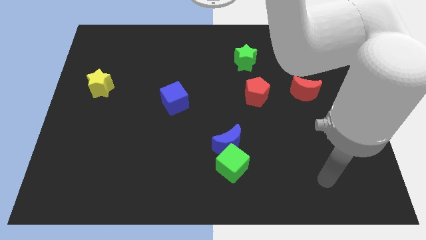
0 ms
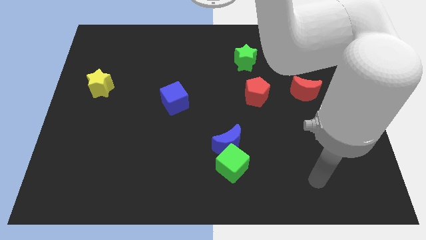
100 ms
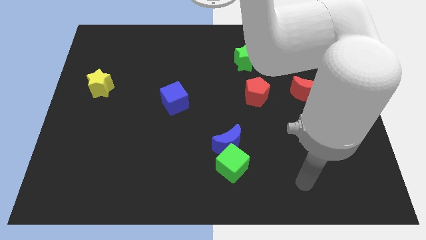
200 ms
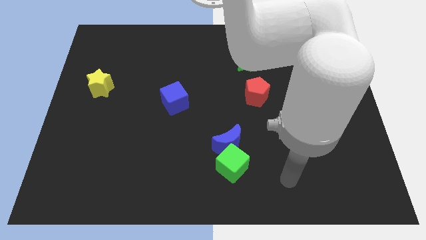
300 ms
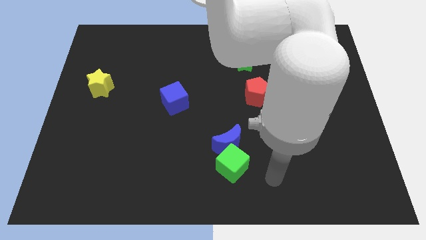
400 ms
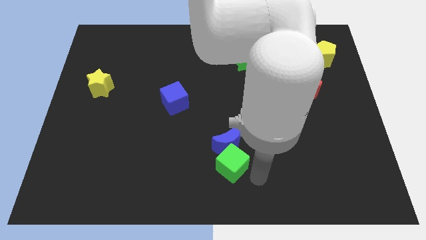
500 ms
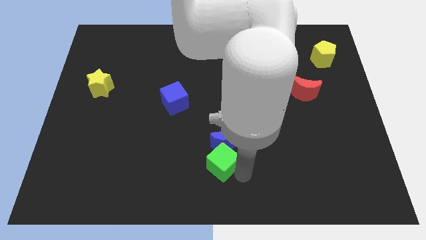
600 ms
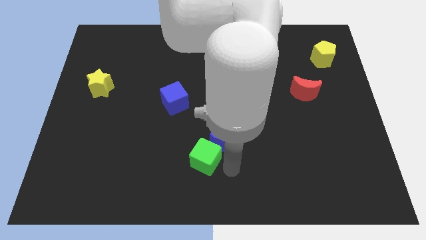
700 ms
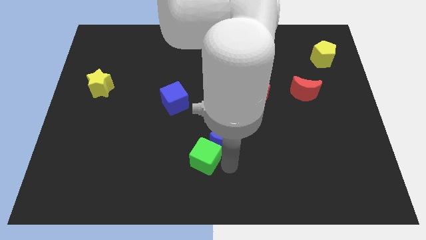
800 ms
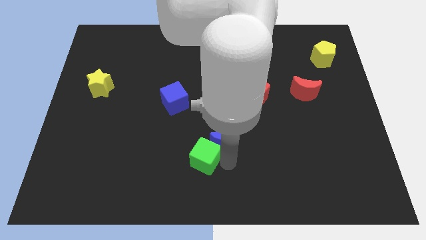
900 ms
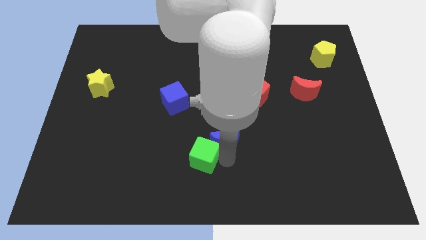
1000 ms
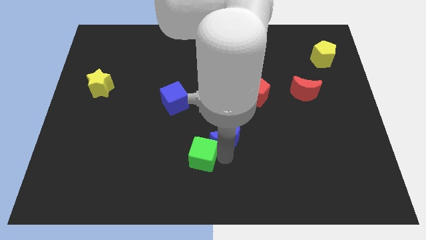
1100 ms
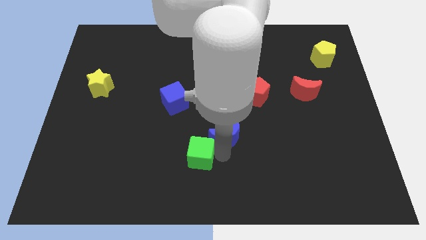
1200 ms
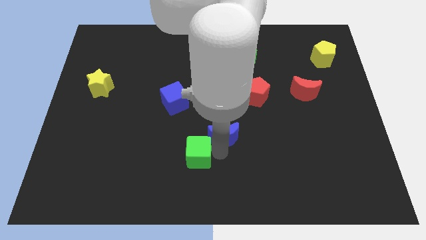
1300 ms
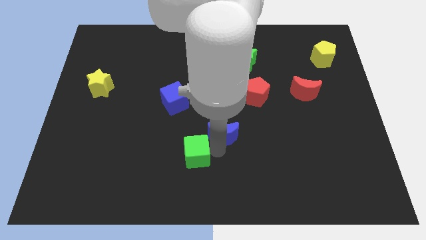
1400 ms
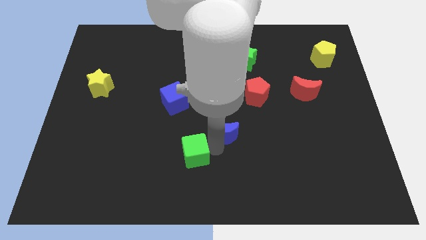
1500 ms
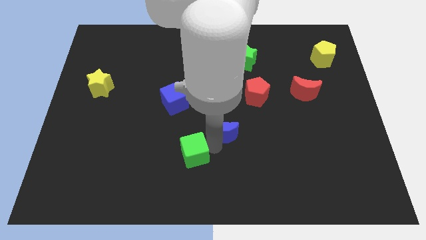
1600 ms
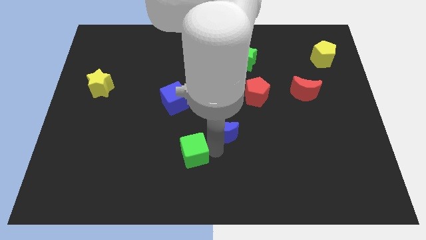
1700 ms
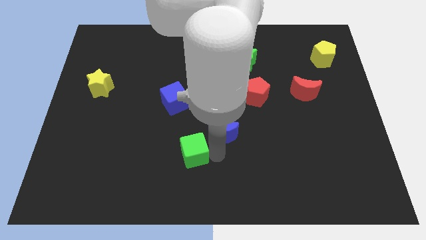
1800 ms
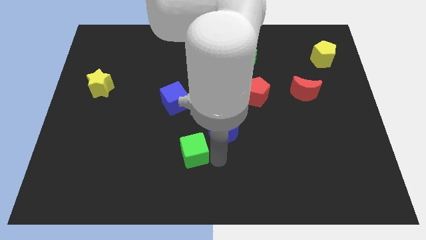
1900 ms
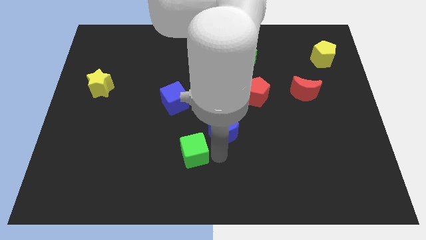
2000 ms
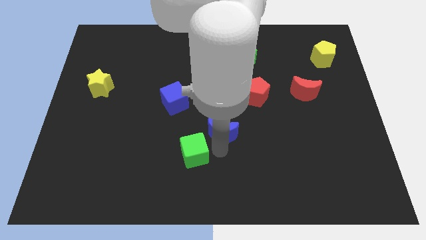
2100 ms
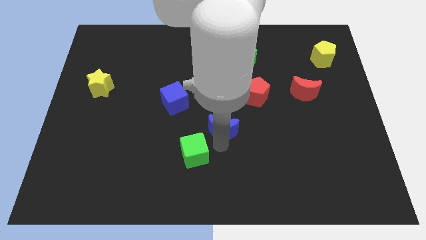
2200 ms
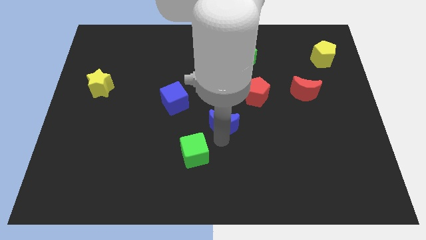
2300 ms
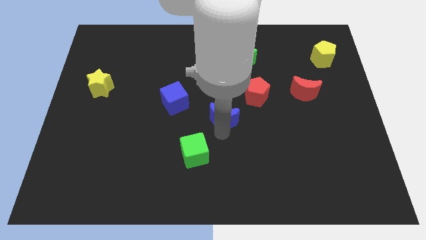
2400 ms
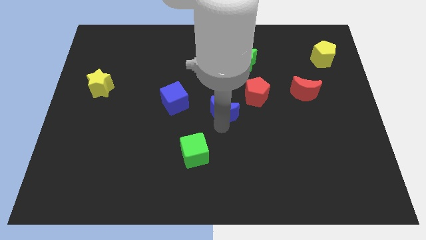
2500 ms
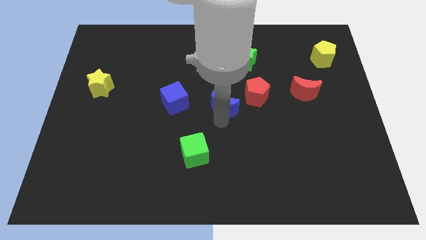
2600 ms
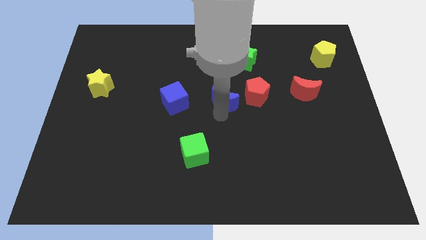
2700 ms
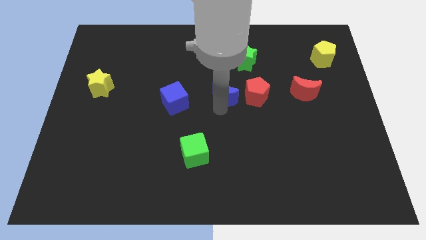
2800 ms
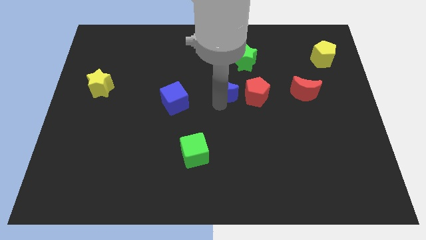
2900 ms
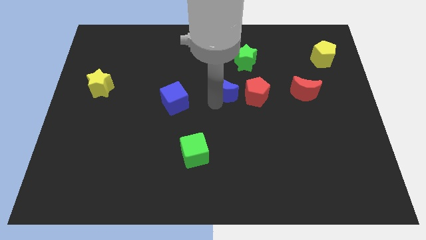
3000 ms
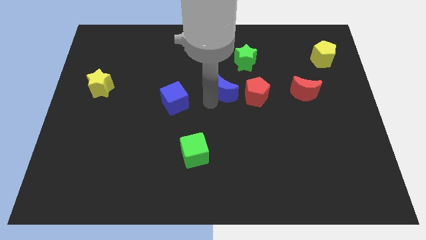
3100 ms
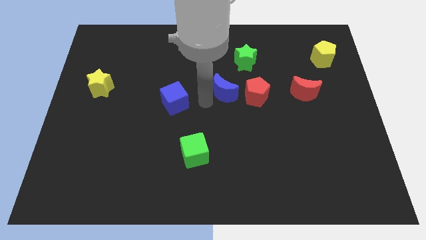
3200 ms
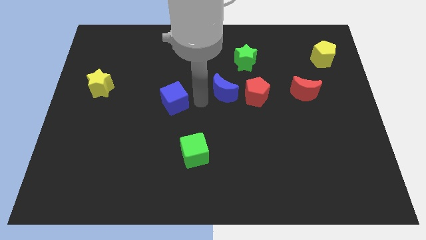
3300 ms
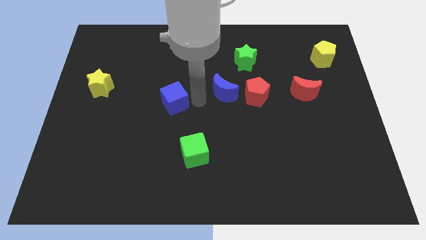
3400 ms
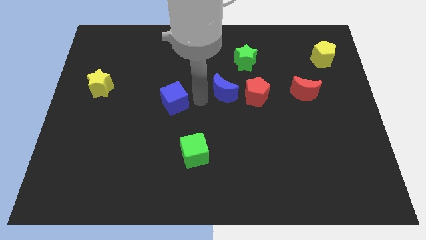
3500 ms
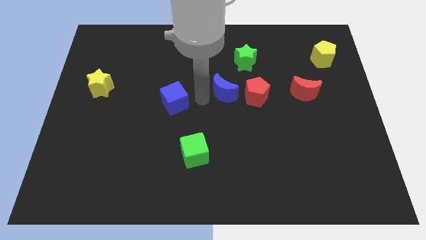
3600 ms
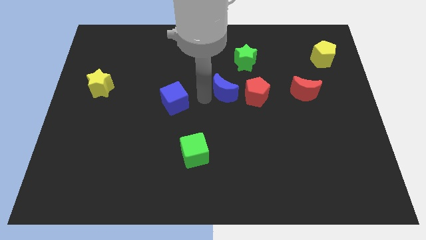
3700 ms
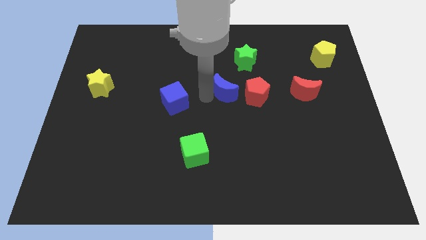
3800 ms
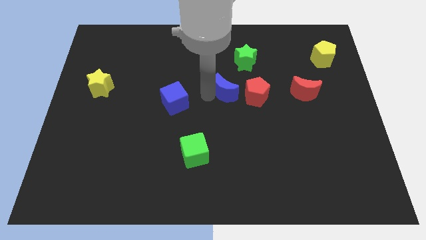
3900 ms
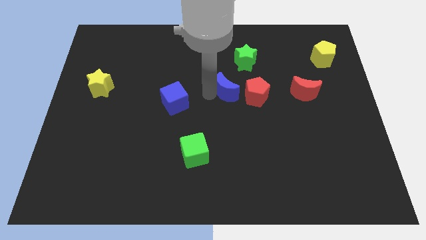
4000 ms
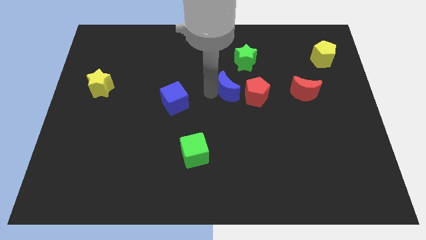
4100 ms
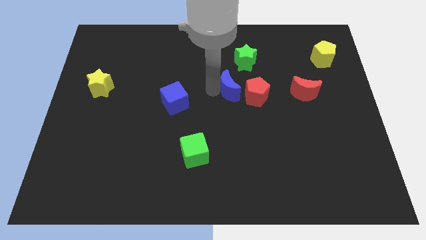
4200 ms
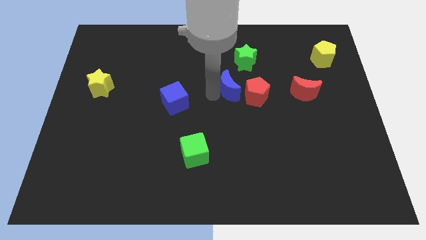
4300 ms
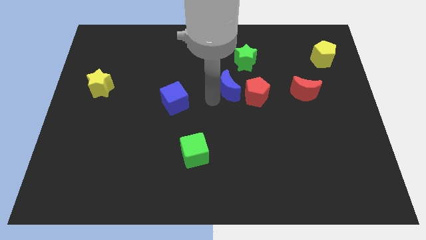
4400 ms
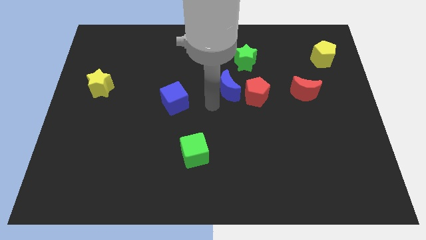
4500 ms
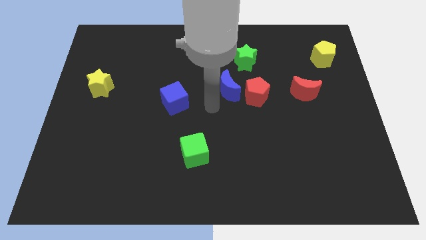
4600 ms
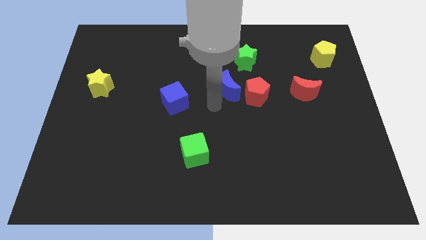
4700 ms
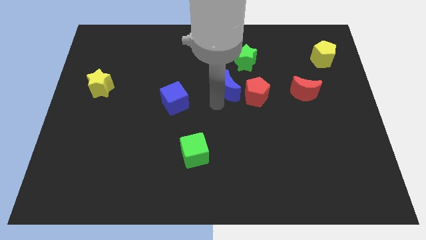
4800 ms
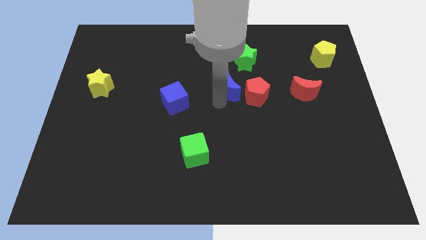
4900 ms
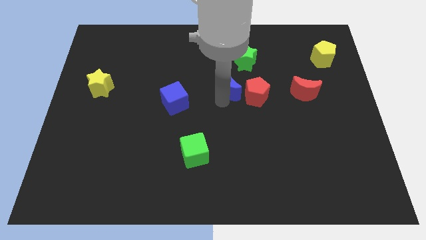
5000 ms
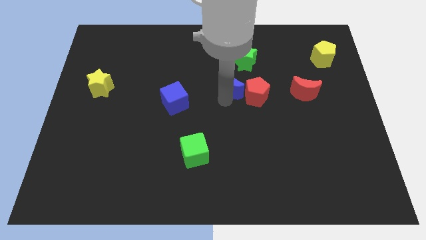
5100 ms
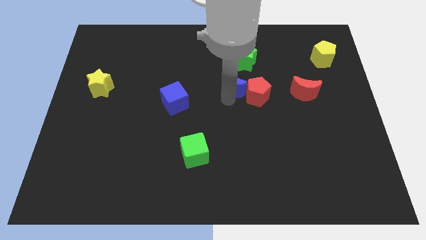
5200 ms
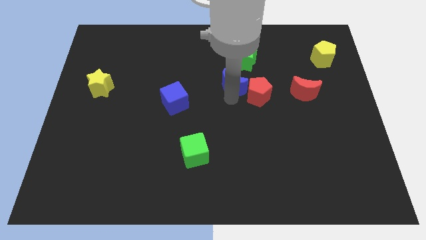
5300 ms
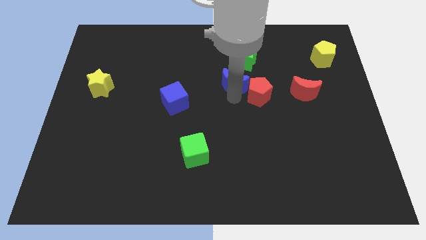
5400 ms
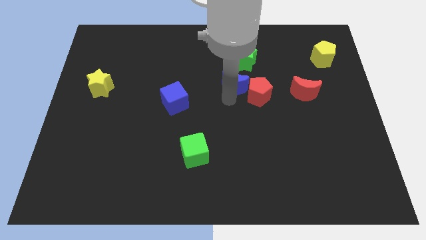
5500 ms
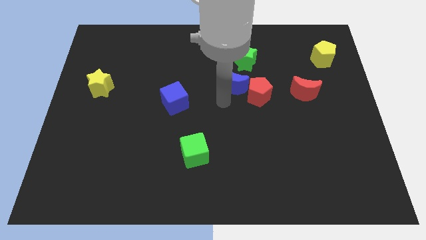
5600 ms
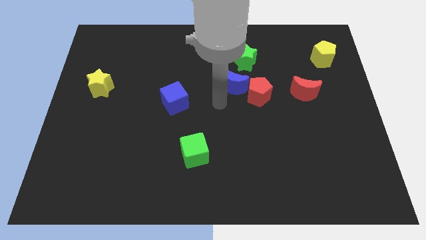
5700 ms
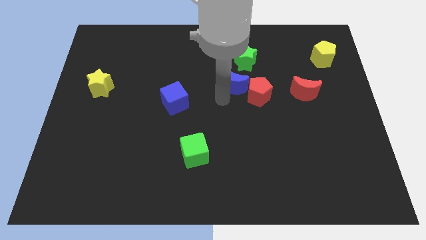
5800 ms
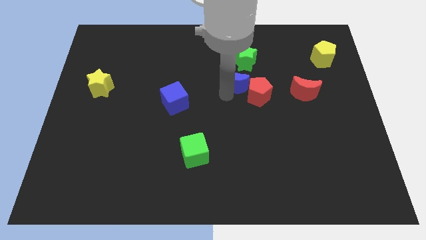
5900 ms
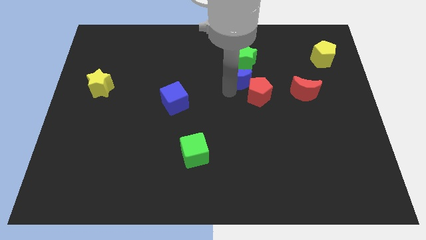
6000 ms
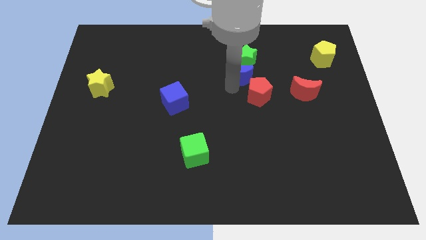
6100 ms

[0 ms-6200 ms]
push the blue moon close to the green star

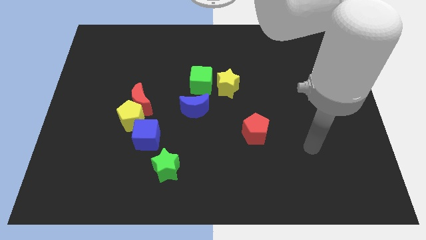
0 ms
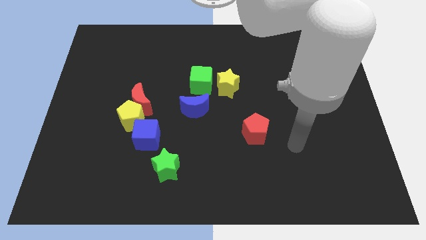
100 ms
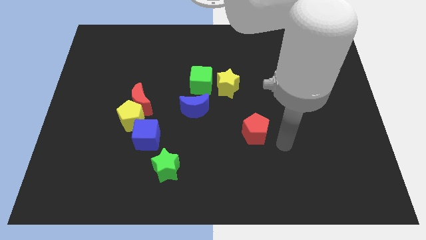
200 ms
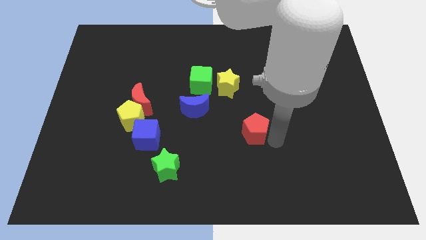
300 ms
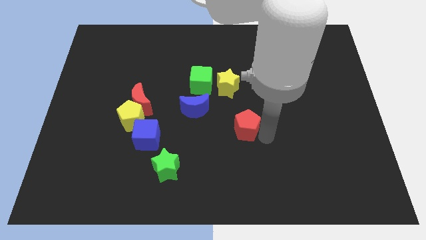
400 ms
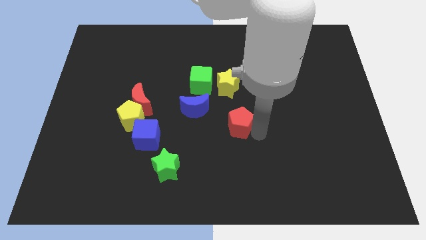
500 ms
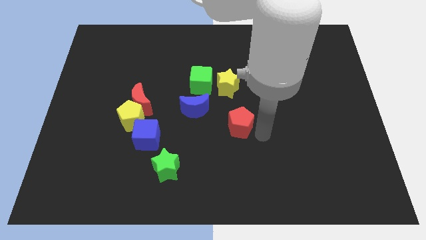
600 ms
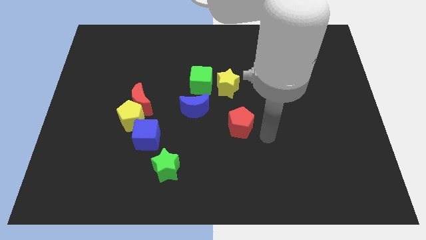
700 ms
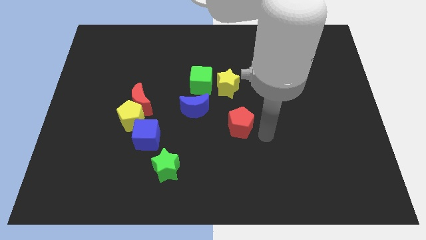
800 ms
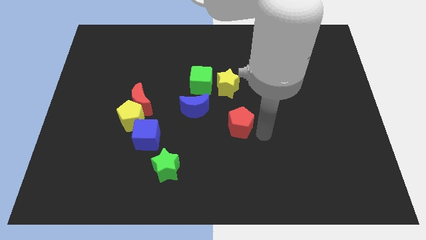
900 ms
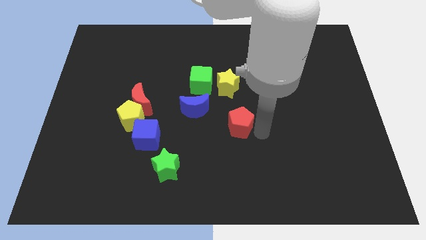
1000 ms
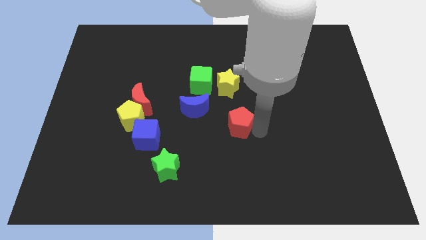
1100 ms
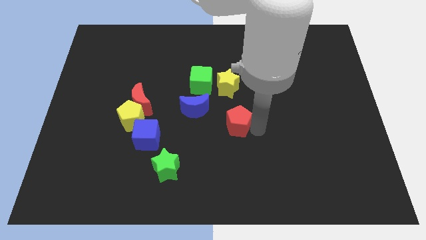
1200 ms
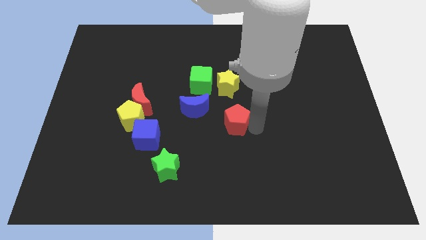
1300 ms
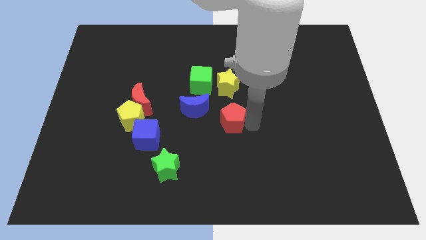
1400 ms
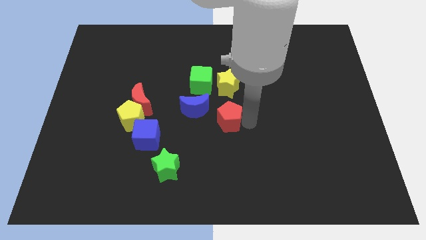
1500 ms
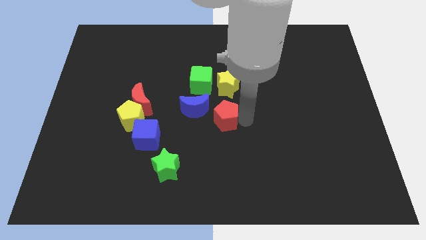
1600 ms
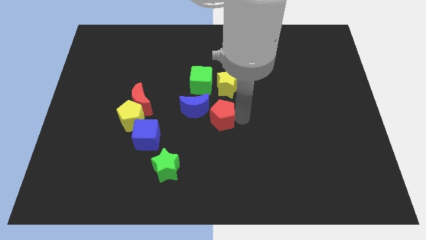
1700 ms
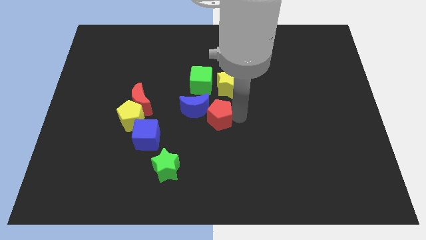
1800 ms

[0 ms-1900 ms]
slide the red pentagon to the blue moon
